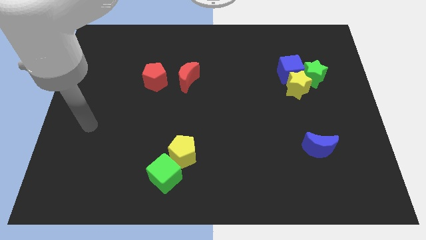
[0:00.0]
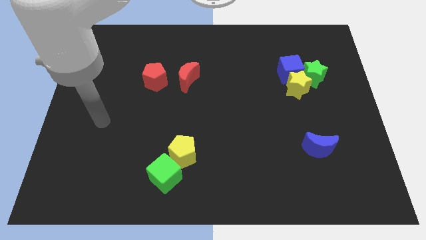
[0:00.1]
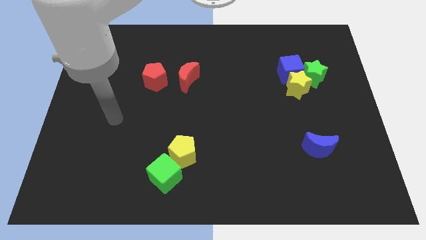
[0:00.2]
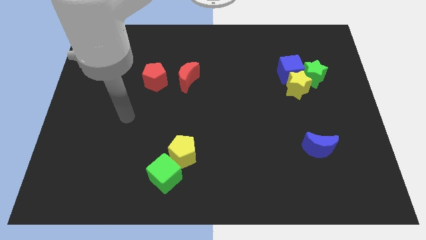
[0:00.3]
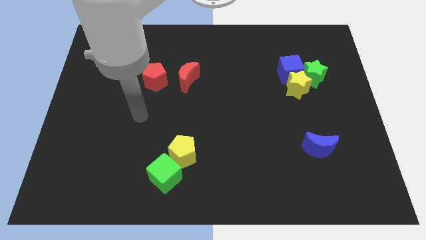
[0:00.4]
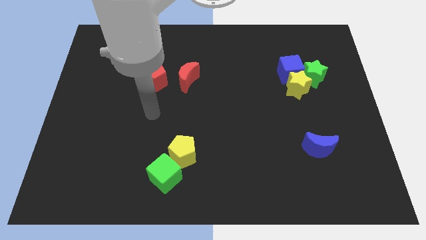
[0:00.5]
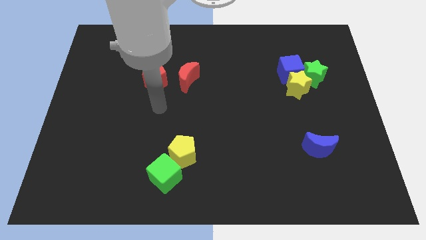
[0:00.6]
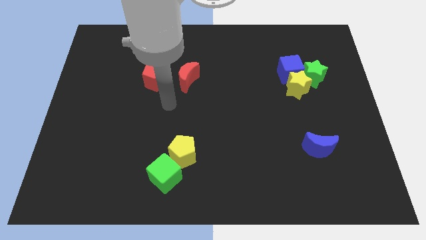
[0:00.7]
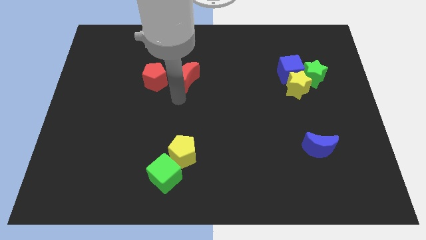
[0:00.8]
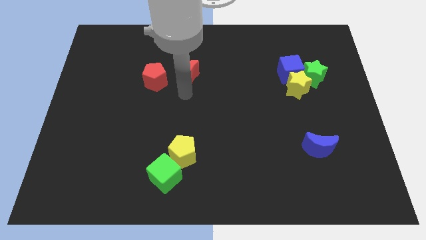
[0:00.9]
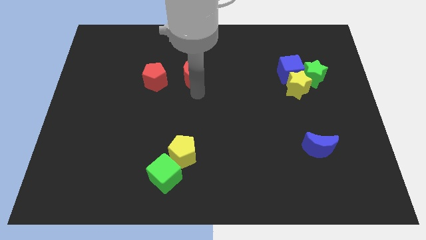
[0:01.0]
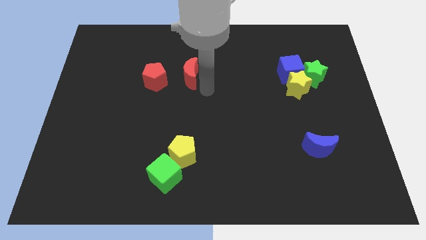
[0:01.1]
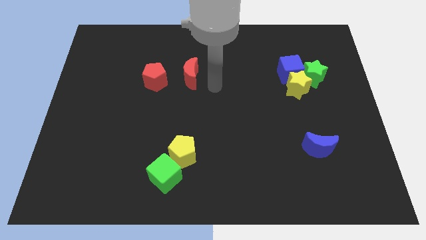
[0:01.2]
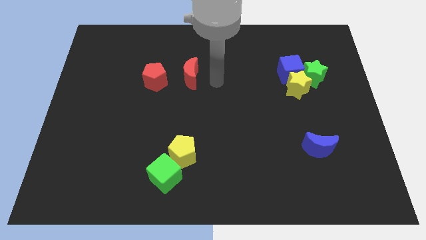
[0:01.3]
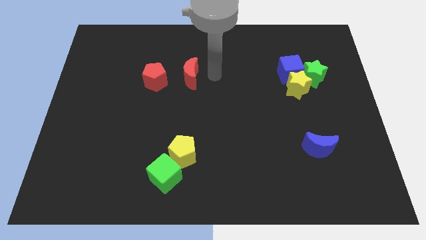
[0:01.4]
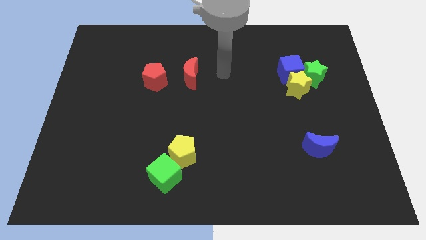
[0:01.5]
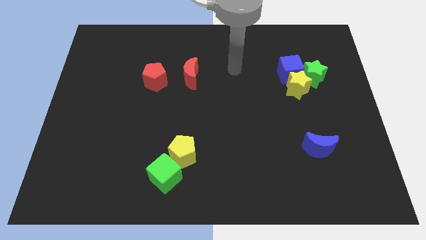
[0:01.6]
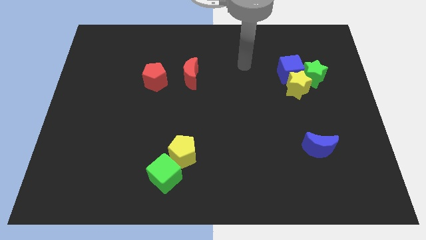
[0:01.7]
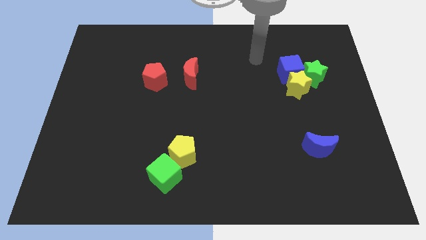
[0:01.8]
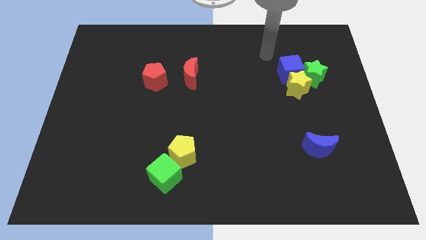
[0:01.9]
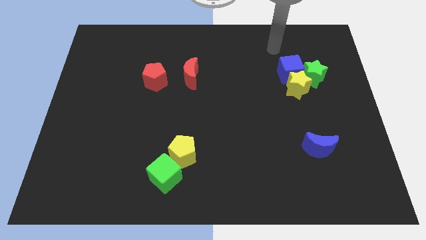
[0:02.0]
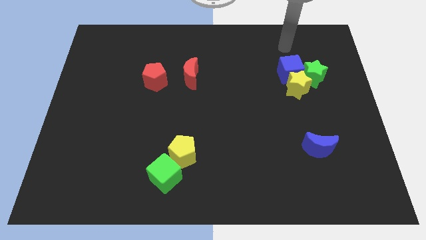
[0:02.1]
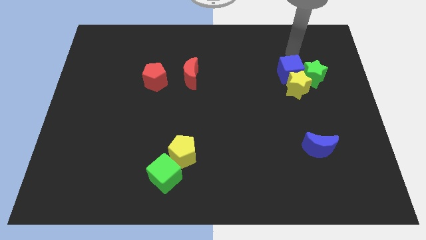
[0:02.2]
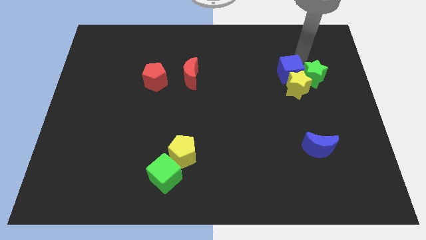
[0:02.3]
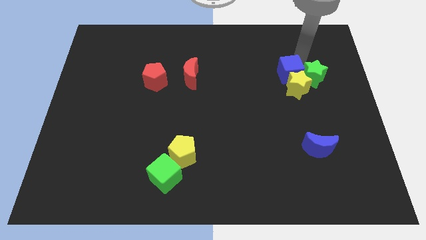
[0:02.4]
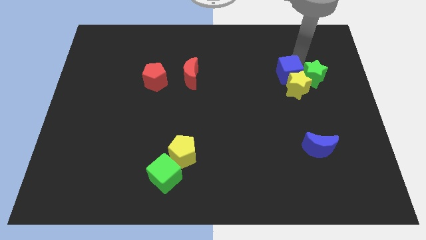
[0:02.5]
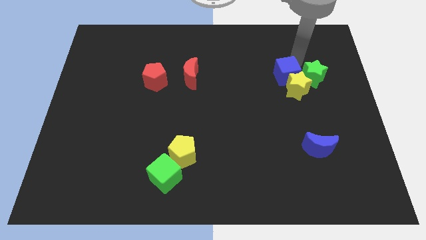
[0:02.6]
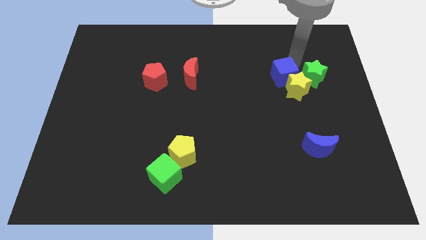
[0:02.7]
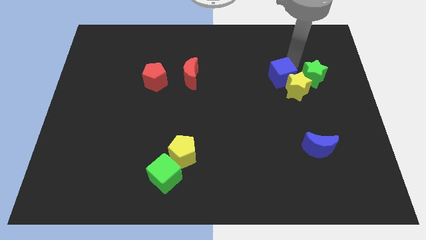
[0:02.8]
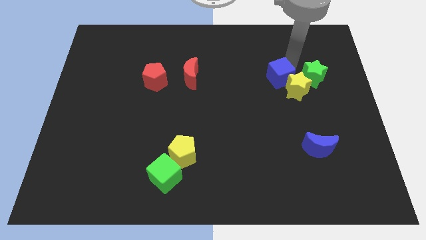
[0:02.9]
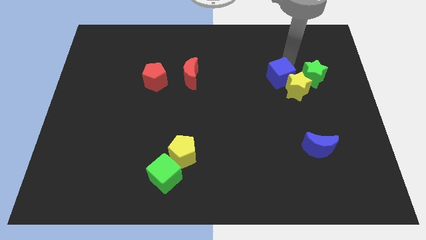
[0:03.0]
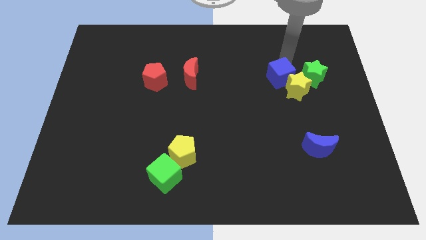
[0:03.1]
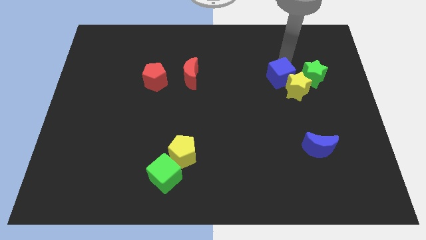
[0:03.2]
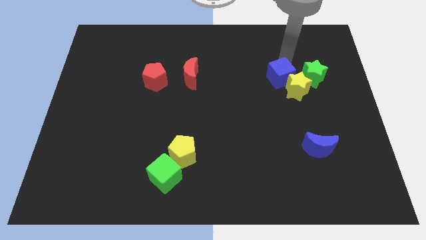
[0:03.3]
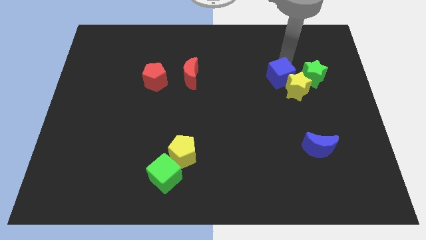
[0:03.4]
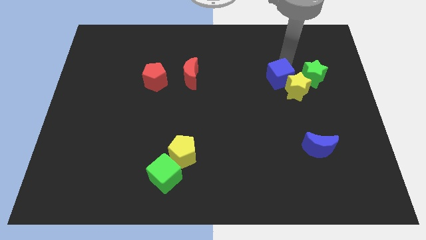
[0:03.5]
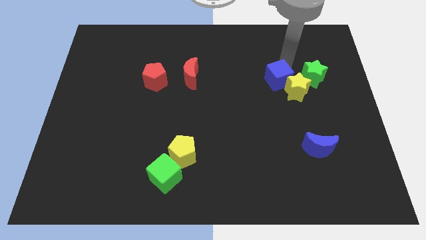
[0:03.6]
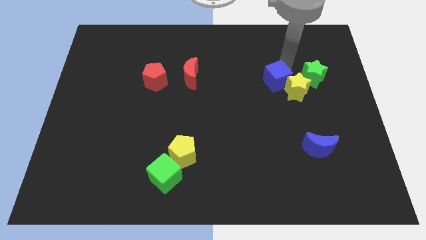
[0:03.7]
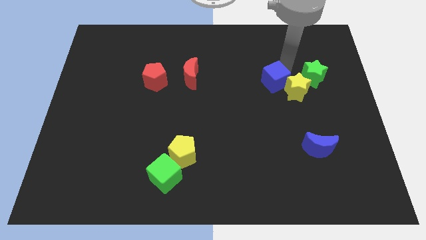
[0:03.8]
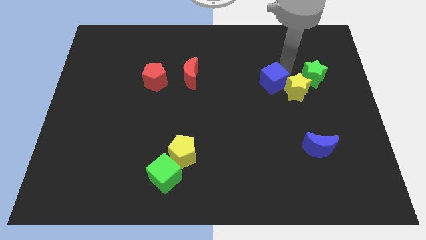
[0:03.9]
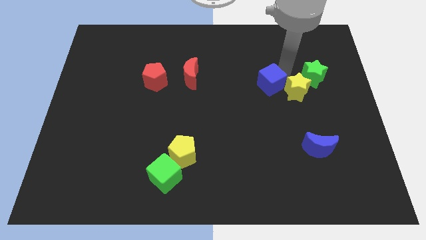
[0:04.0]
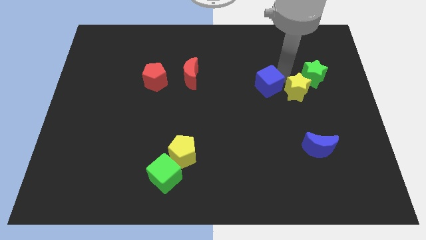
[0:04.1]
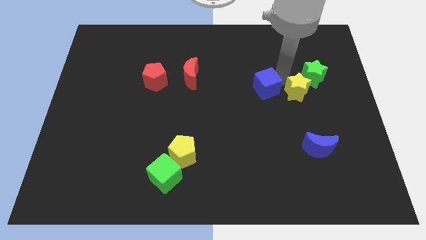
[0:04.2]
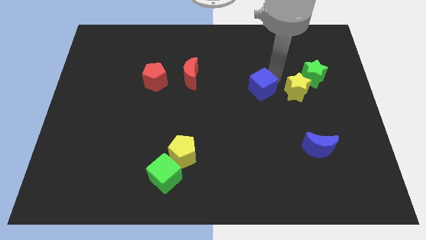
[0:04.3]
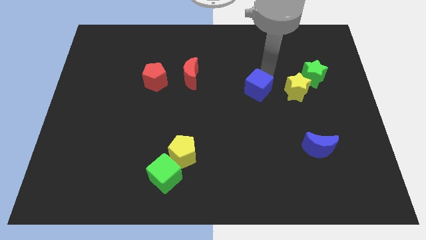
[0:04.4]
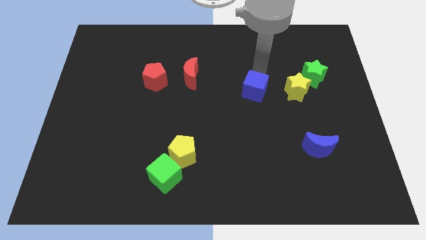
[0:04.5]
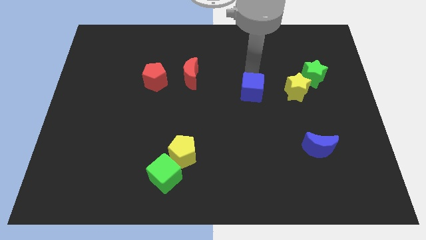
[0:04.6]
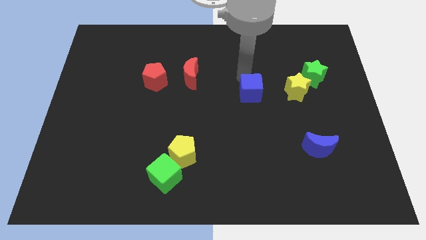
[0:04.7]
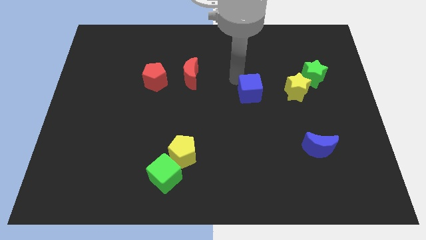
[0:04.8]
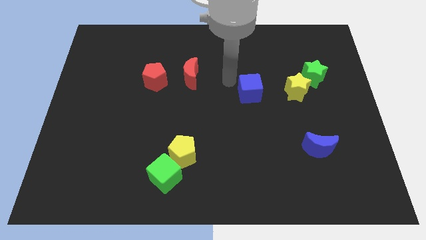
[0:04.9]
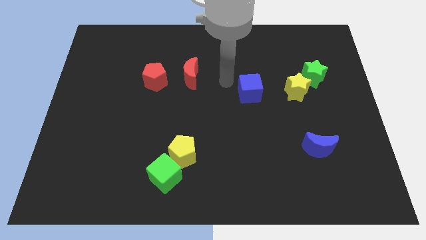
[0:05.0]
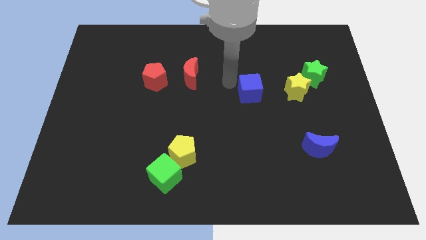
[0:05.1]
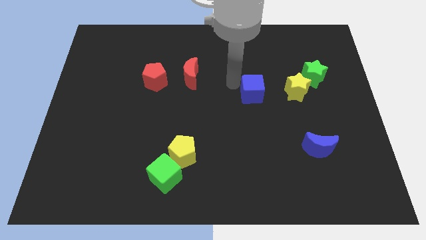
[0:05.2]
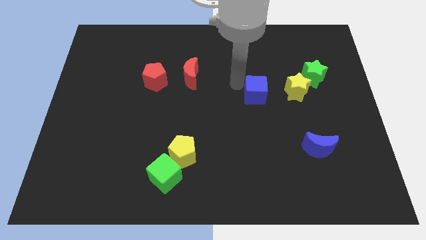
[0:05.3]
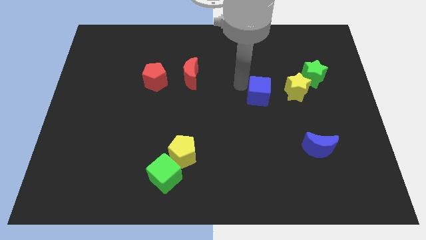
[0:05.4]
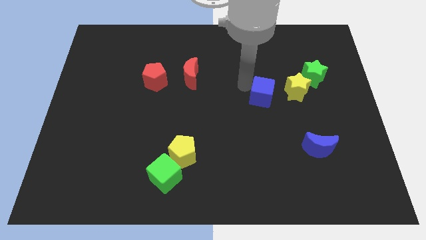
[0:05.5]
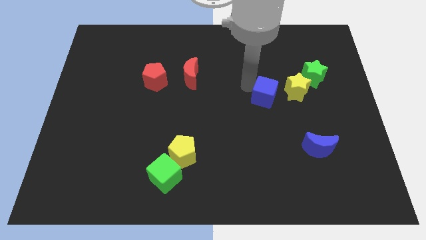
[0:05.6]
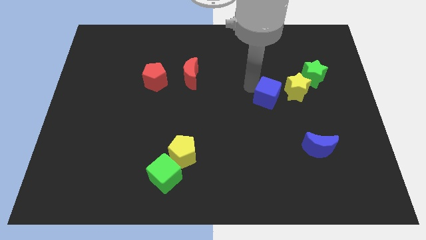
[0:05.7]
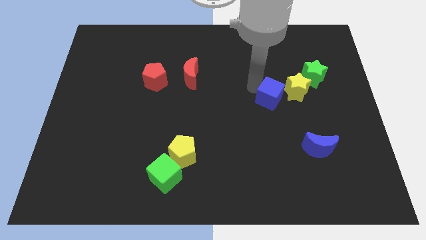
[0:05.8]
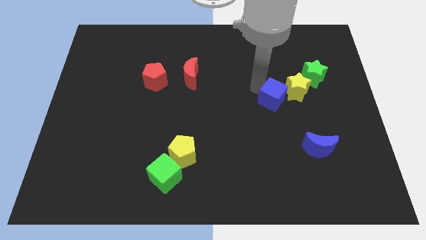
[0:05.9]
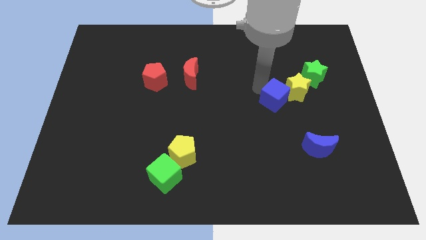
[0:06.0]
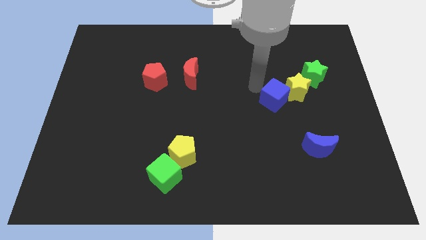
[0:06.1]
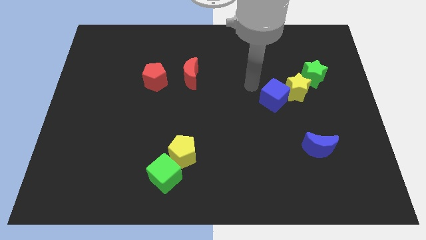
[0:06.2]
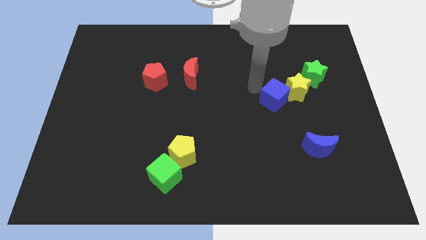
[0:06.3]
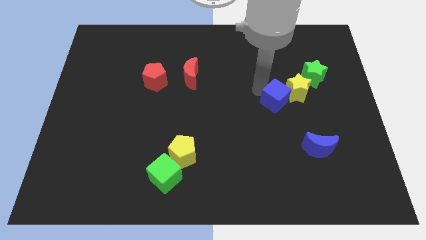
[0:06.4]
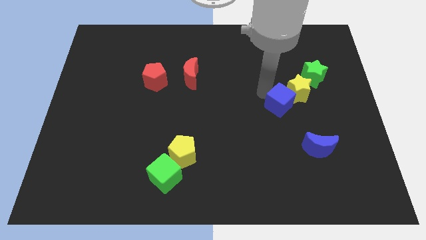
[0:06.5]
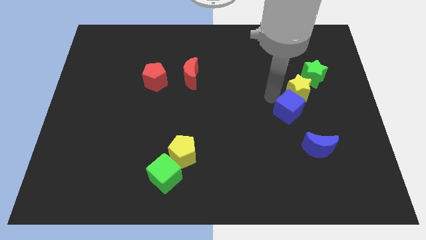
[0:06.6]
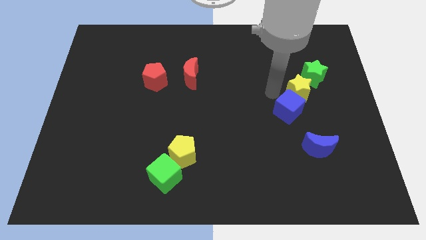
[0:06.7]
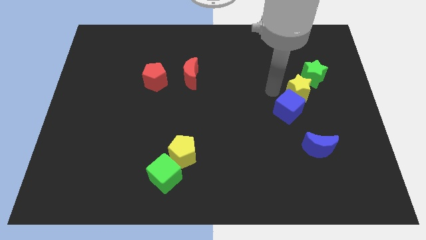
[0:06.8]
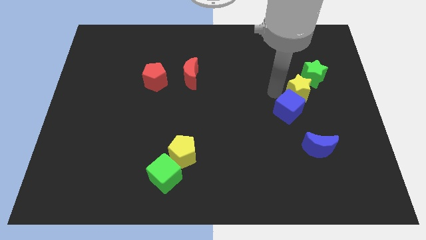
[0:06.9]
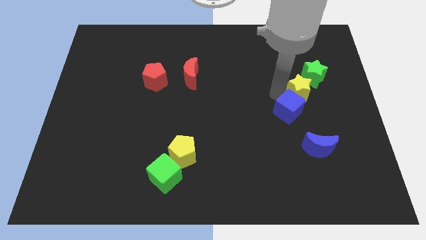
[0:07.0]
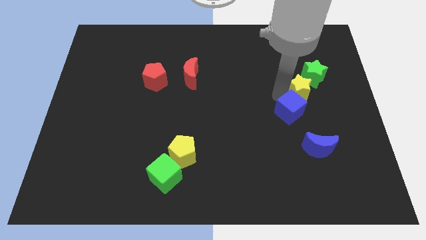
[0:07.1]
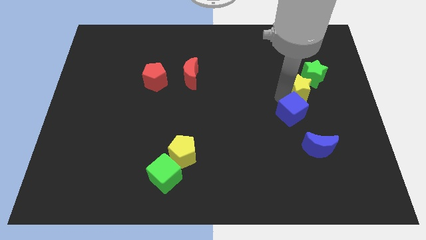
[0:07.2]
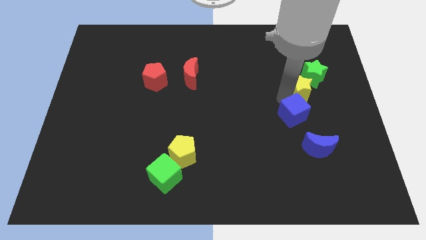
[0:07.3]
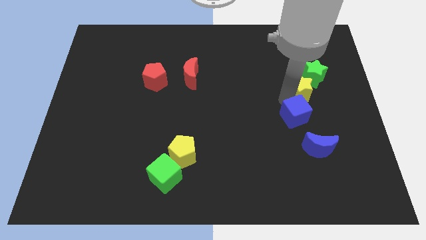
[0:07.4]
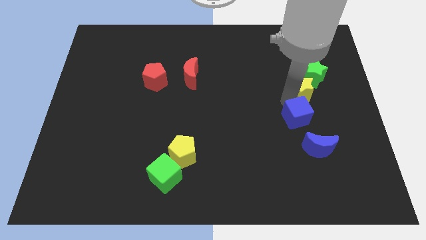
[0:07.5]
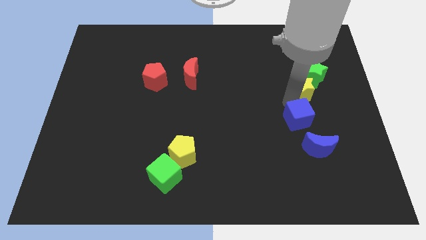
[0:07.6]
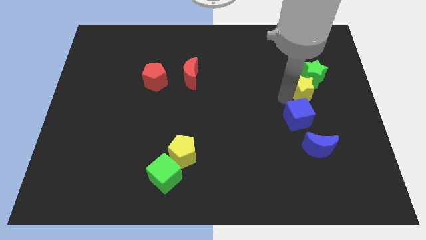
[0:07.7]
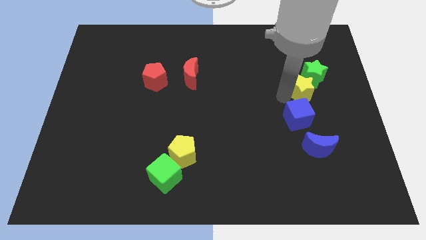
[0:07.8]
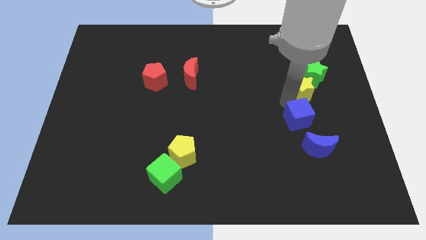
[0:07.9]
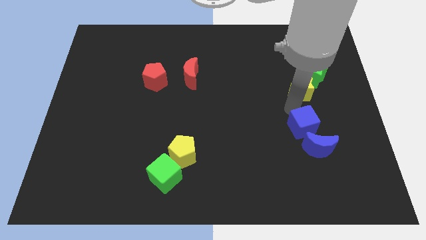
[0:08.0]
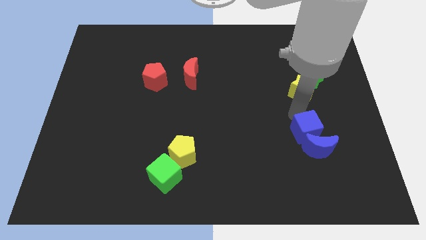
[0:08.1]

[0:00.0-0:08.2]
move the blue cube towards the blue moon
